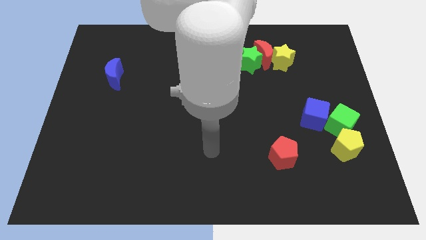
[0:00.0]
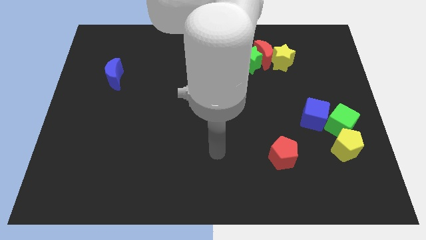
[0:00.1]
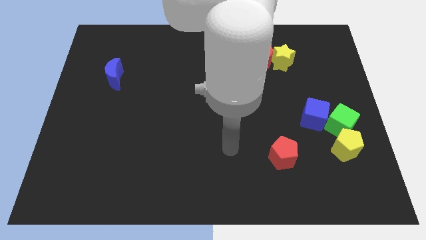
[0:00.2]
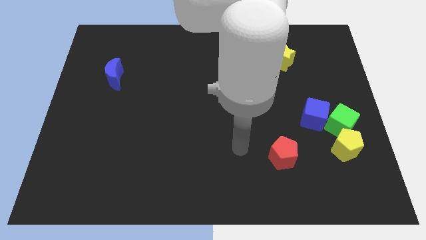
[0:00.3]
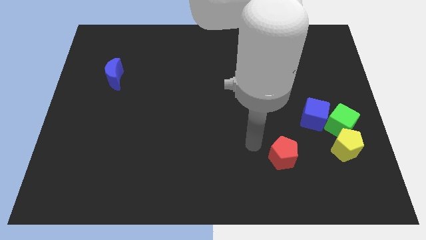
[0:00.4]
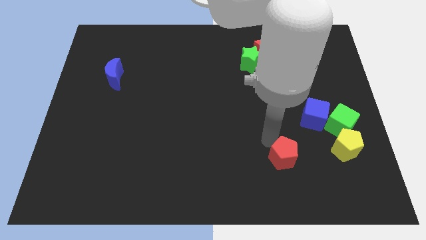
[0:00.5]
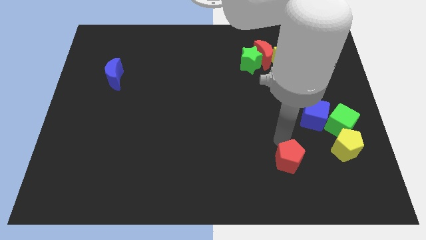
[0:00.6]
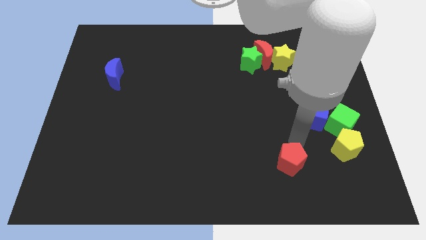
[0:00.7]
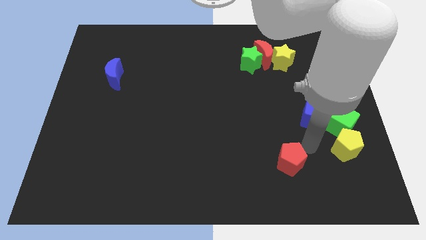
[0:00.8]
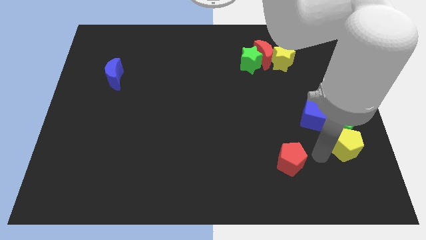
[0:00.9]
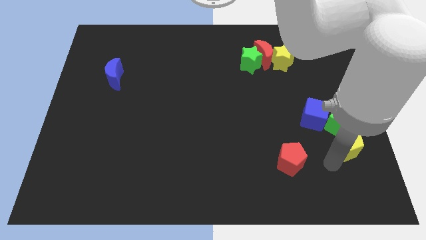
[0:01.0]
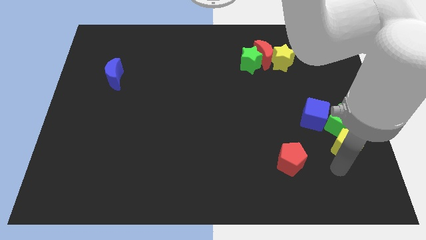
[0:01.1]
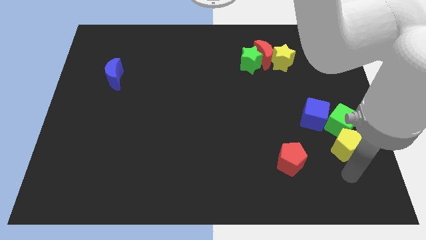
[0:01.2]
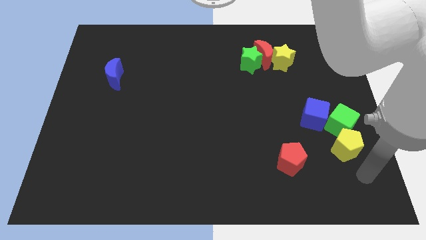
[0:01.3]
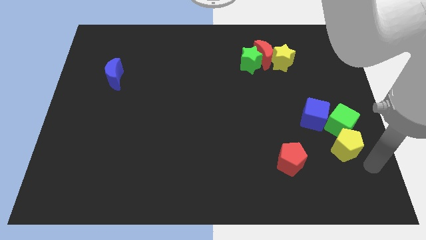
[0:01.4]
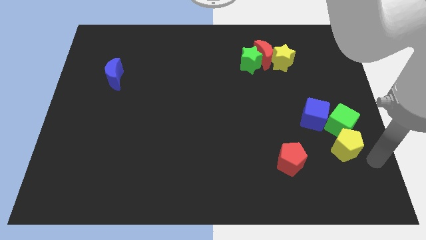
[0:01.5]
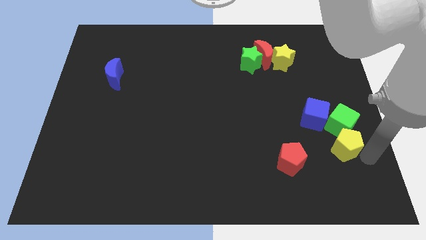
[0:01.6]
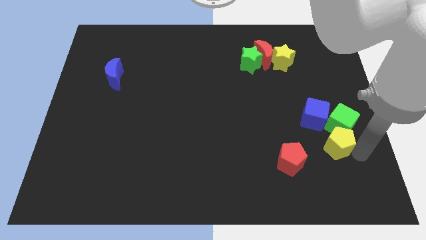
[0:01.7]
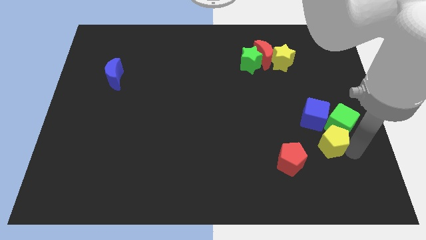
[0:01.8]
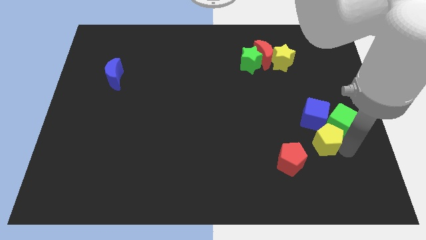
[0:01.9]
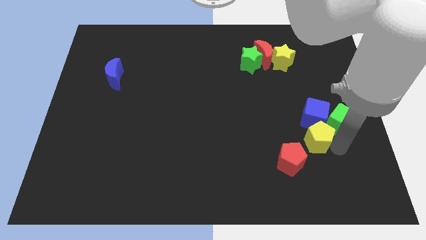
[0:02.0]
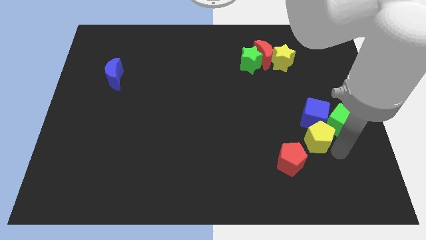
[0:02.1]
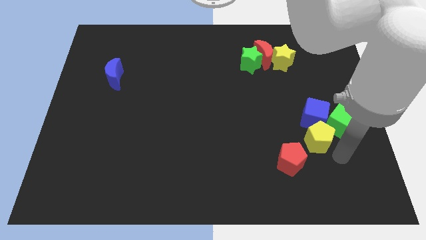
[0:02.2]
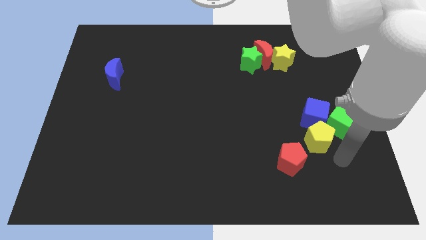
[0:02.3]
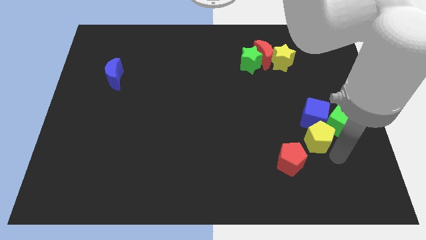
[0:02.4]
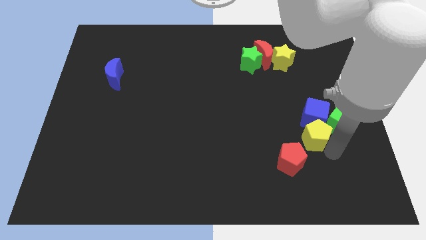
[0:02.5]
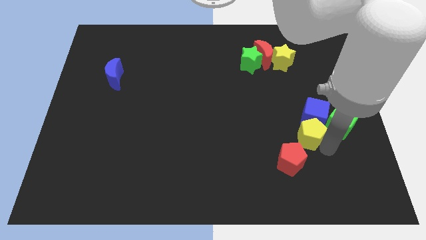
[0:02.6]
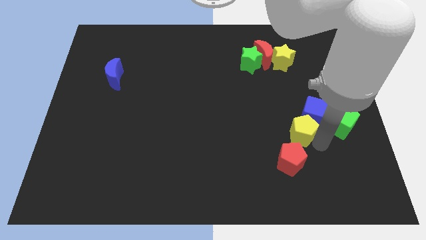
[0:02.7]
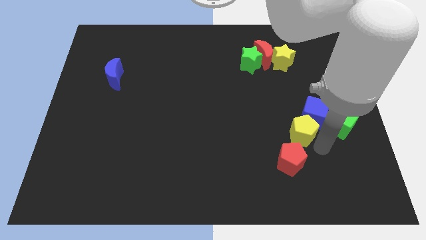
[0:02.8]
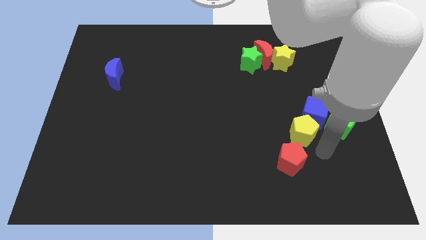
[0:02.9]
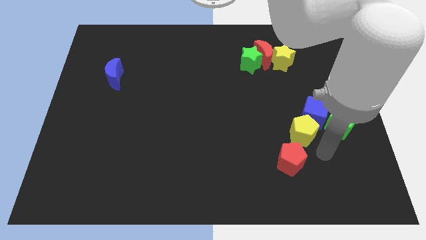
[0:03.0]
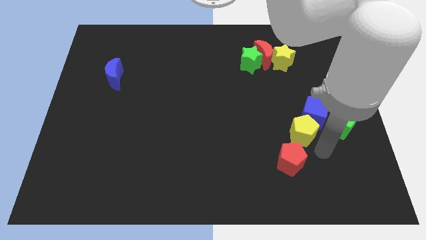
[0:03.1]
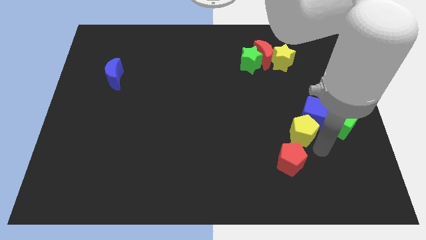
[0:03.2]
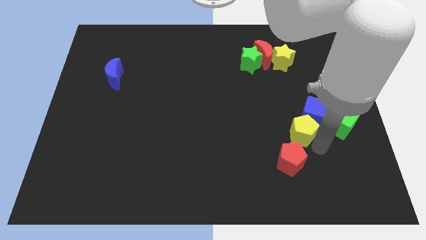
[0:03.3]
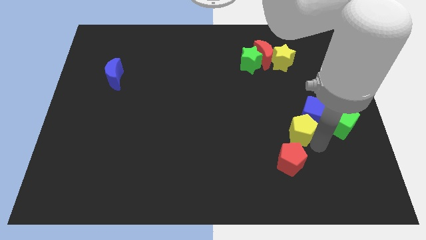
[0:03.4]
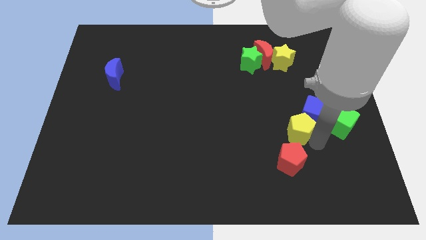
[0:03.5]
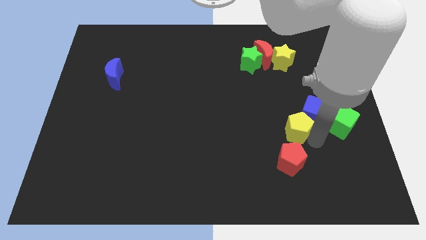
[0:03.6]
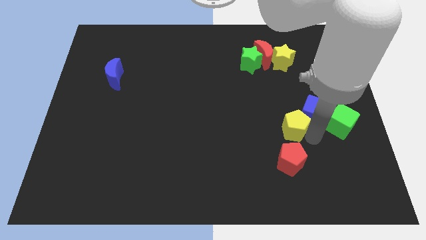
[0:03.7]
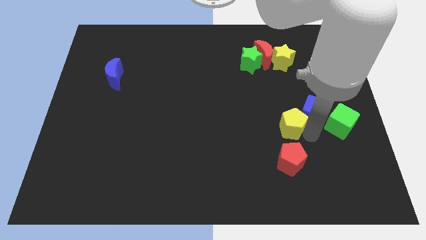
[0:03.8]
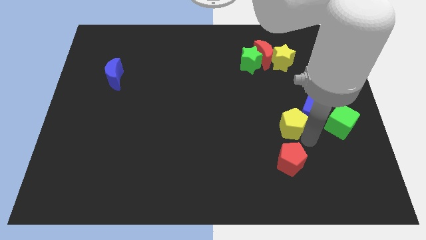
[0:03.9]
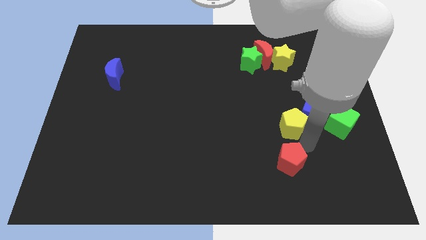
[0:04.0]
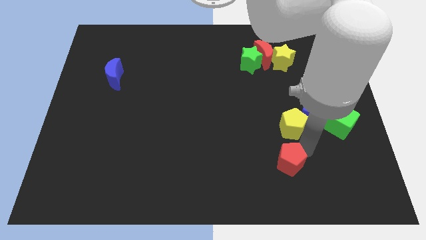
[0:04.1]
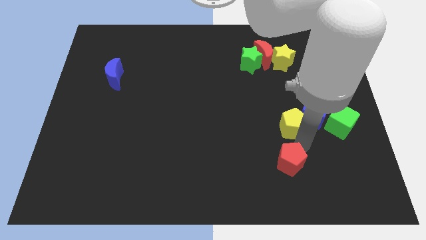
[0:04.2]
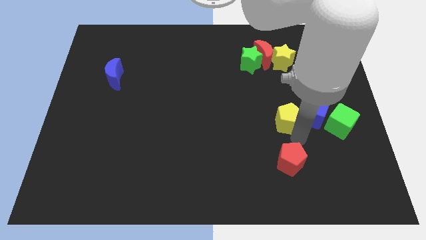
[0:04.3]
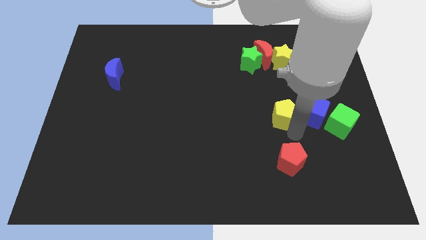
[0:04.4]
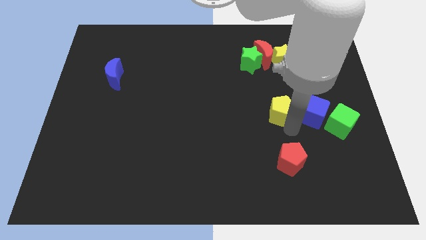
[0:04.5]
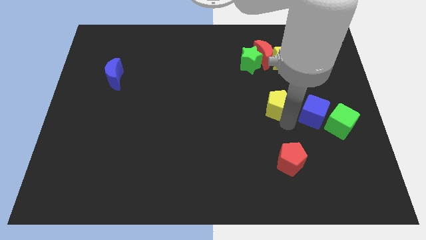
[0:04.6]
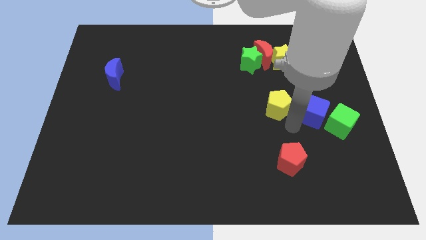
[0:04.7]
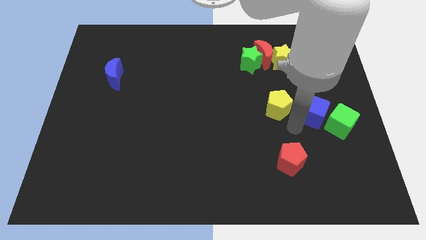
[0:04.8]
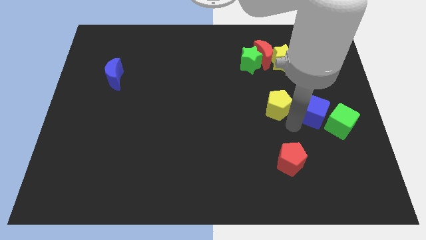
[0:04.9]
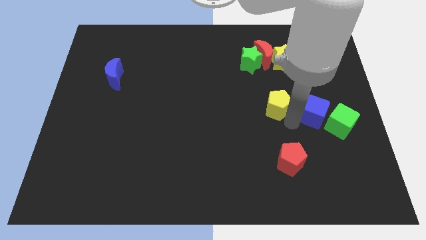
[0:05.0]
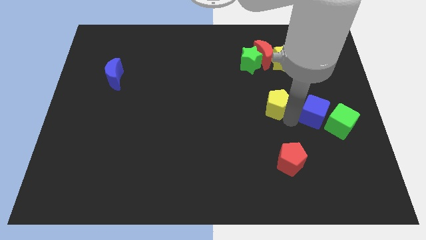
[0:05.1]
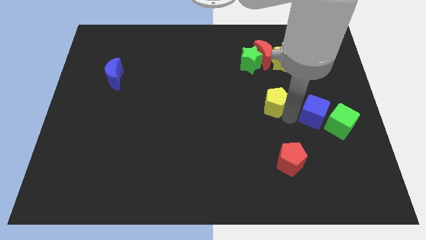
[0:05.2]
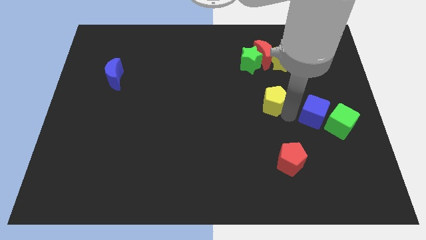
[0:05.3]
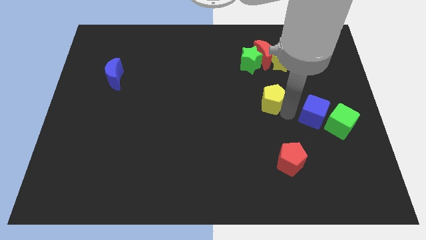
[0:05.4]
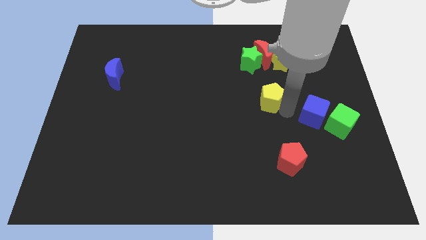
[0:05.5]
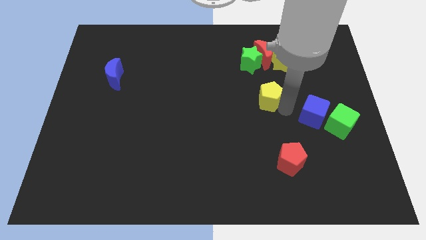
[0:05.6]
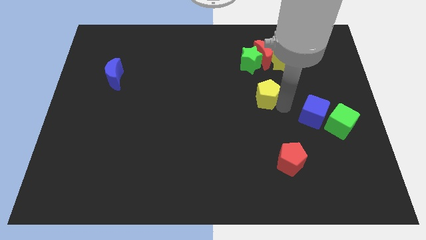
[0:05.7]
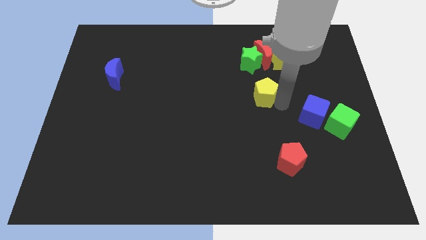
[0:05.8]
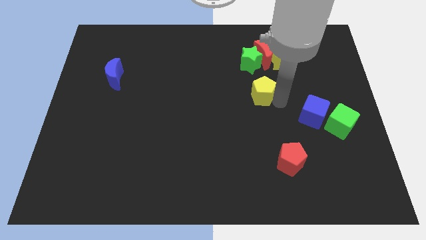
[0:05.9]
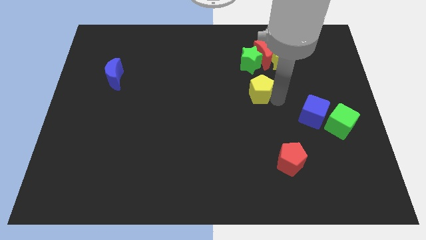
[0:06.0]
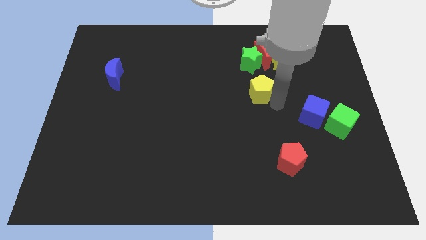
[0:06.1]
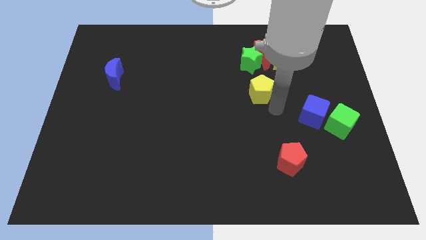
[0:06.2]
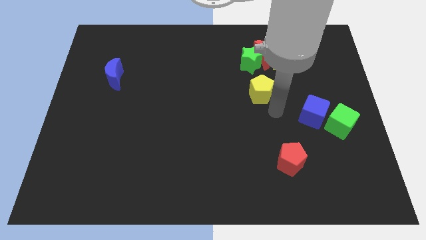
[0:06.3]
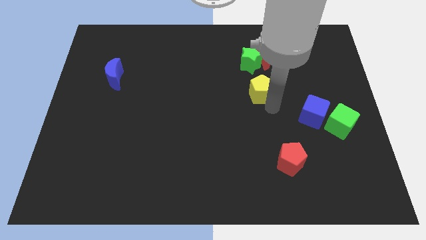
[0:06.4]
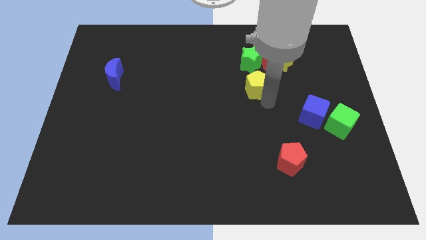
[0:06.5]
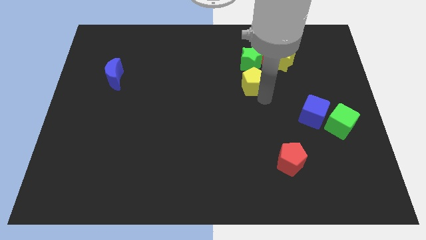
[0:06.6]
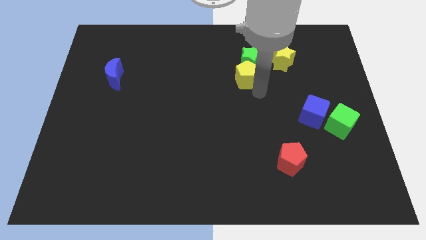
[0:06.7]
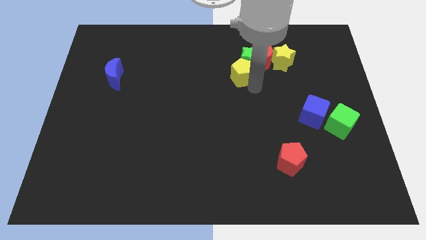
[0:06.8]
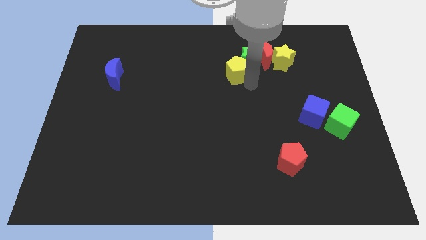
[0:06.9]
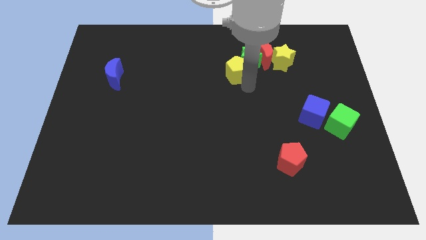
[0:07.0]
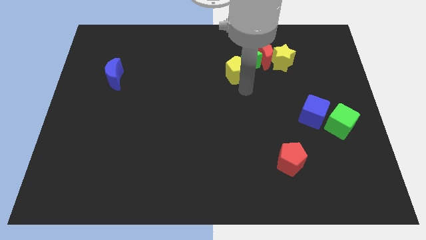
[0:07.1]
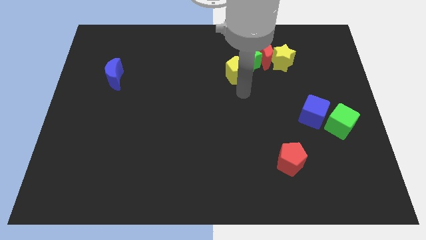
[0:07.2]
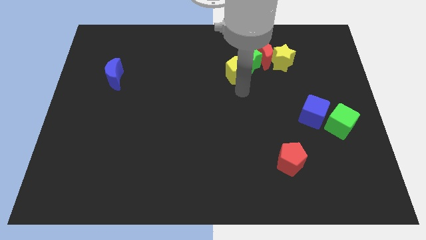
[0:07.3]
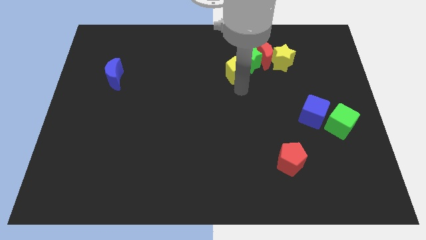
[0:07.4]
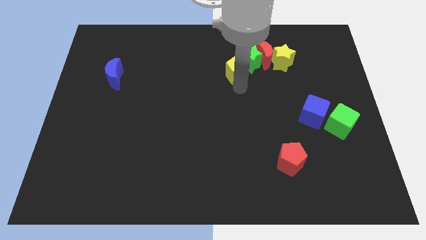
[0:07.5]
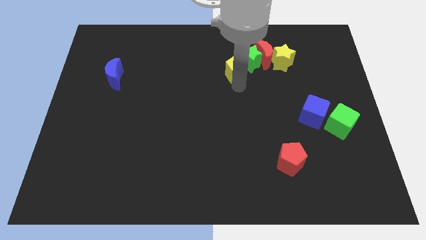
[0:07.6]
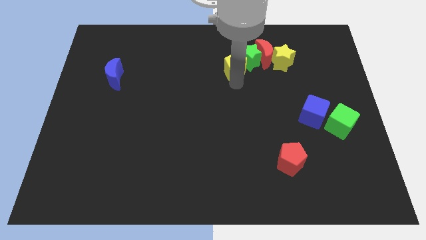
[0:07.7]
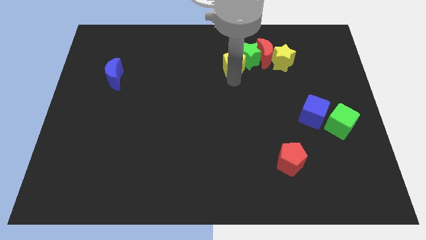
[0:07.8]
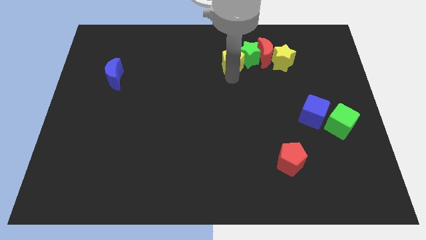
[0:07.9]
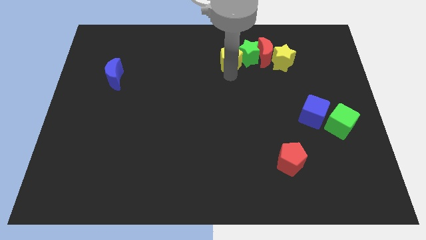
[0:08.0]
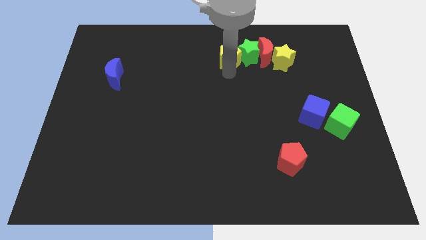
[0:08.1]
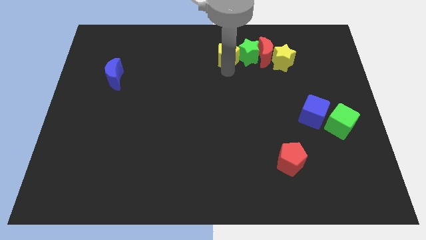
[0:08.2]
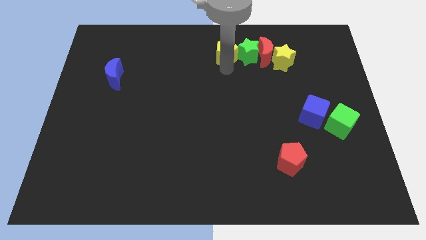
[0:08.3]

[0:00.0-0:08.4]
move the yellow pentagon to the top side
